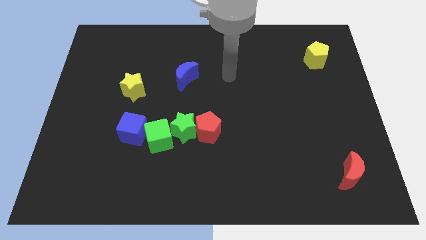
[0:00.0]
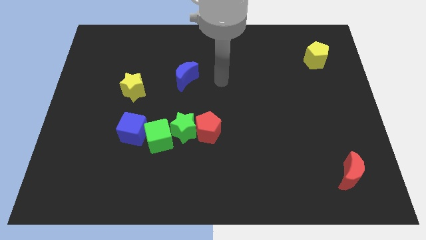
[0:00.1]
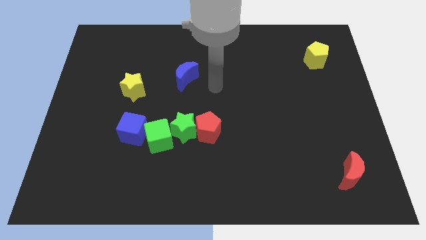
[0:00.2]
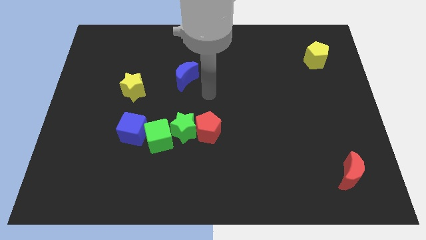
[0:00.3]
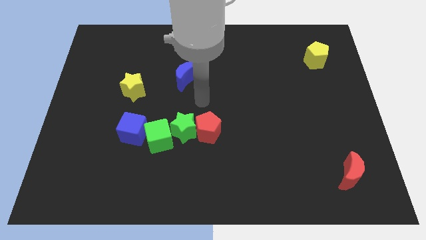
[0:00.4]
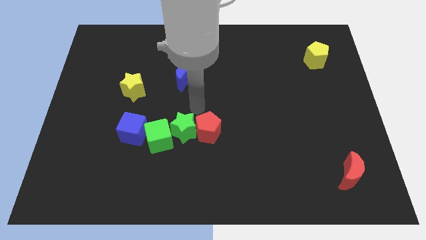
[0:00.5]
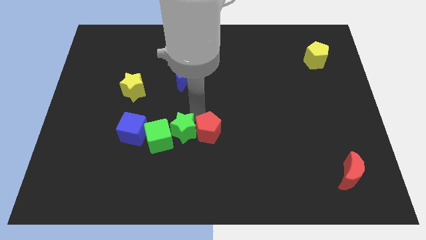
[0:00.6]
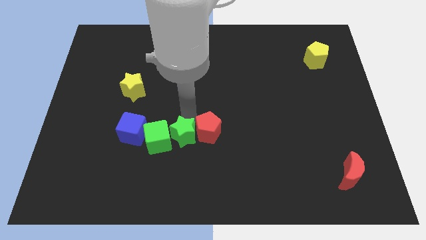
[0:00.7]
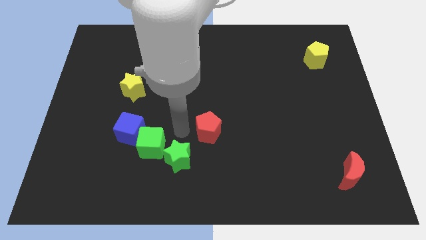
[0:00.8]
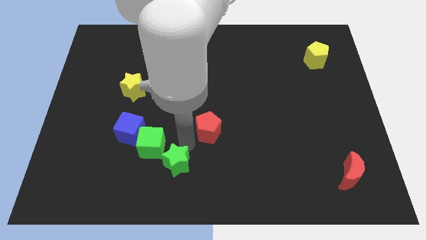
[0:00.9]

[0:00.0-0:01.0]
move the red pentagon away from the green star

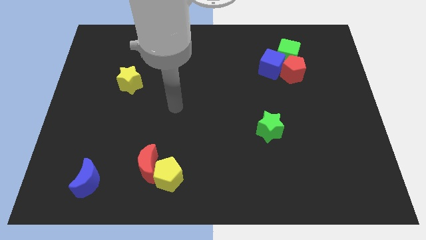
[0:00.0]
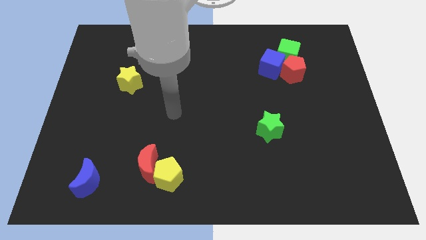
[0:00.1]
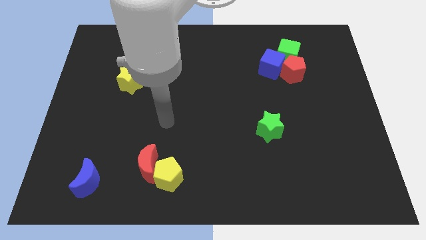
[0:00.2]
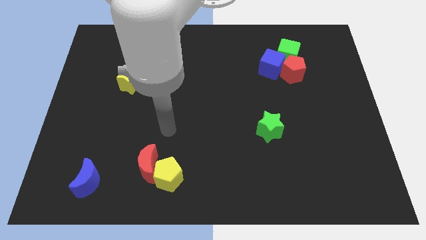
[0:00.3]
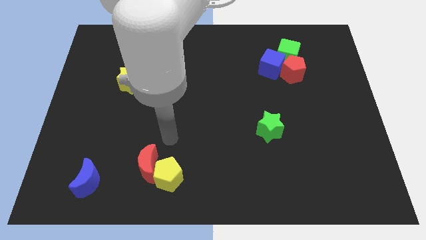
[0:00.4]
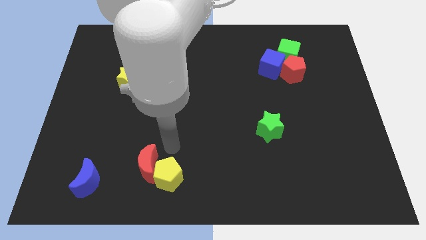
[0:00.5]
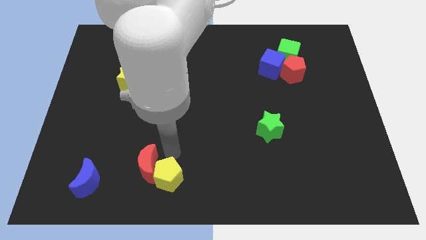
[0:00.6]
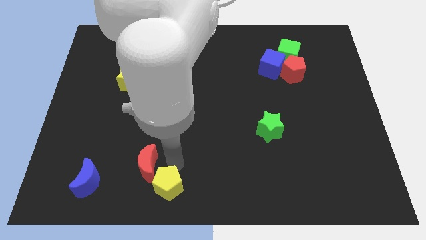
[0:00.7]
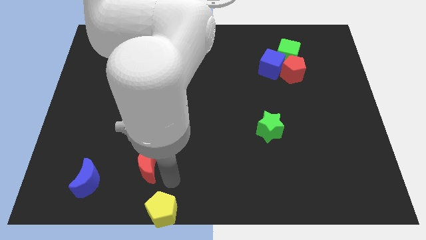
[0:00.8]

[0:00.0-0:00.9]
move the red moon away from the yellow pentagon

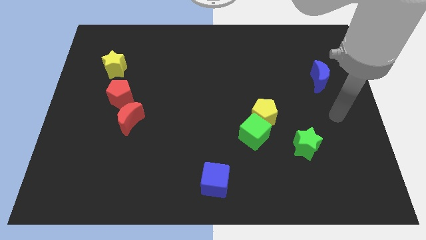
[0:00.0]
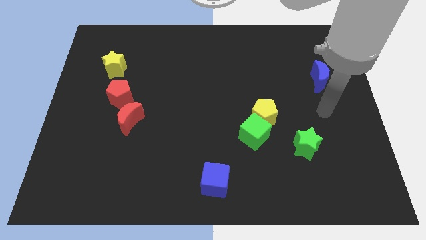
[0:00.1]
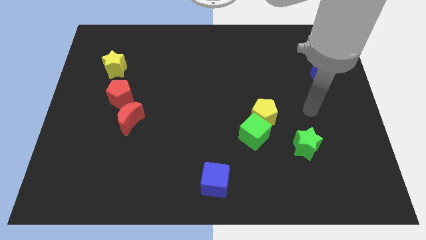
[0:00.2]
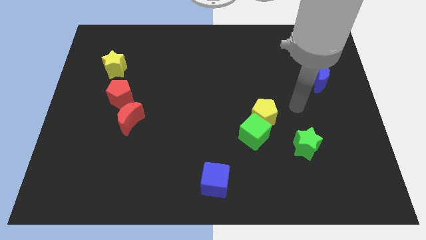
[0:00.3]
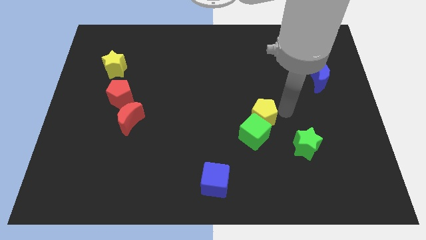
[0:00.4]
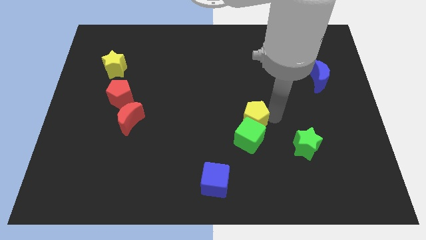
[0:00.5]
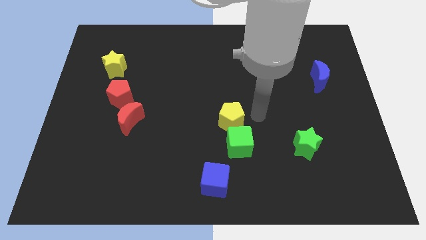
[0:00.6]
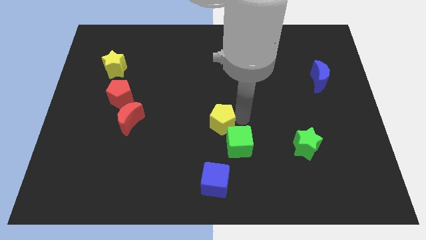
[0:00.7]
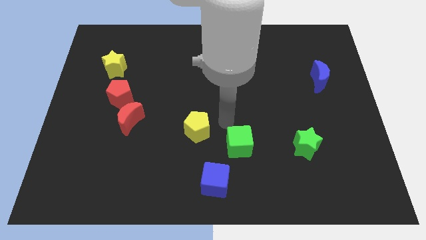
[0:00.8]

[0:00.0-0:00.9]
separate the green cube from the yellow pentagon

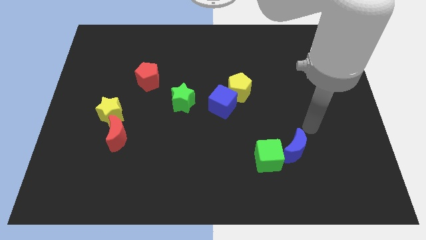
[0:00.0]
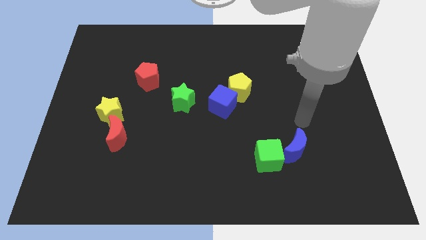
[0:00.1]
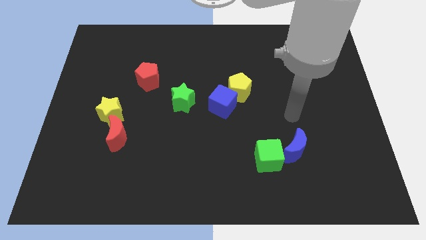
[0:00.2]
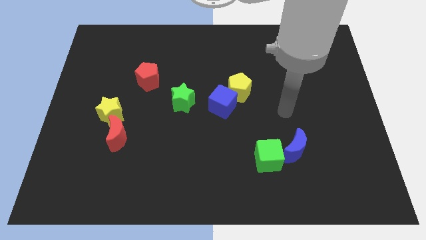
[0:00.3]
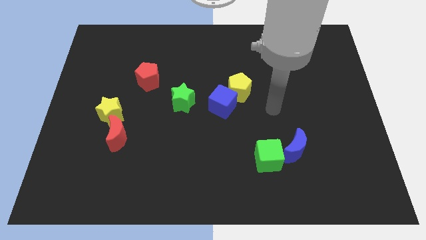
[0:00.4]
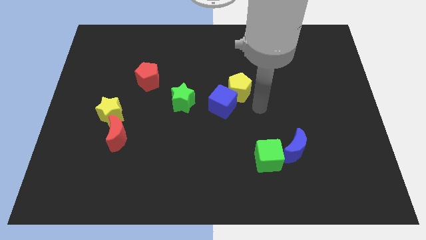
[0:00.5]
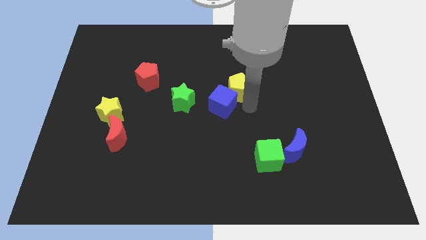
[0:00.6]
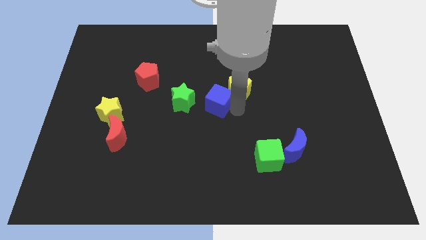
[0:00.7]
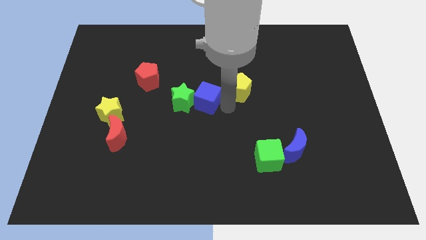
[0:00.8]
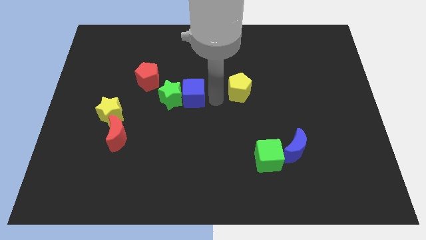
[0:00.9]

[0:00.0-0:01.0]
pull the yellow pentagon apart from the blue cube

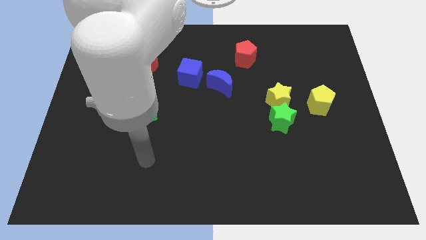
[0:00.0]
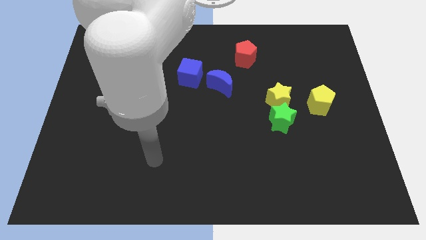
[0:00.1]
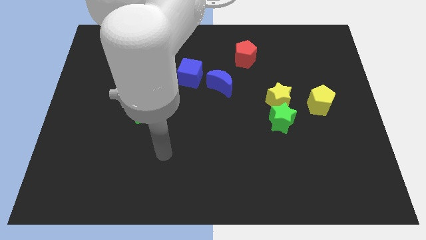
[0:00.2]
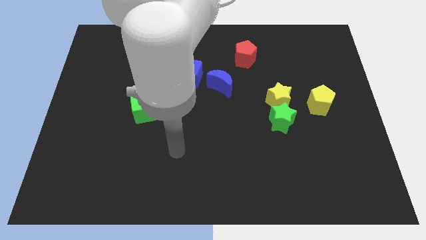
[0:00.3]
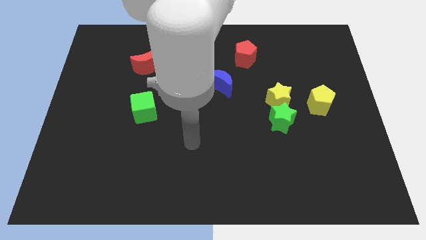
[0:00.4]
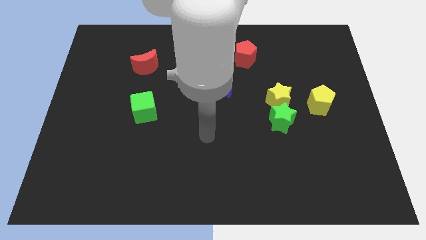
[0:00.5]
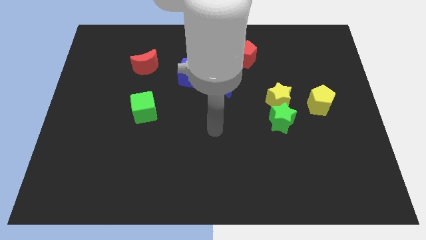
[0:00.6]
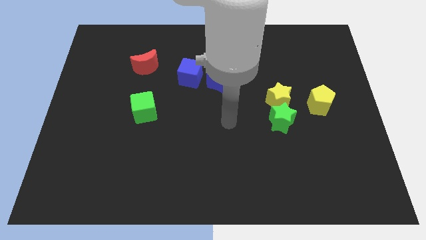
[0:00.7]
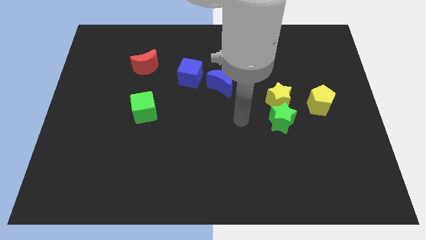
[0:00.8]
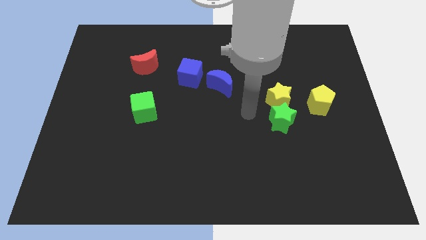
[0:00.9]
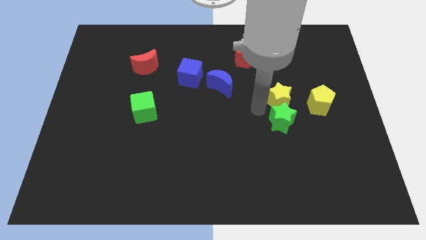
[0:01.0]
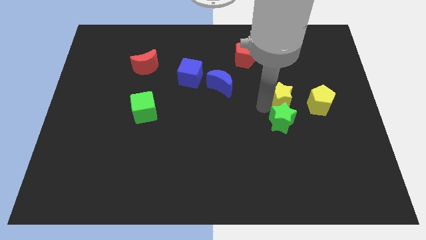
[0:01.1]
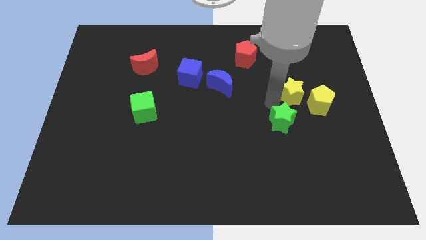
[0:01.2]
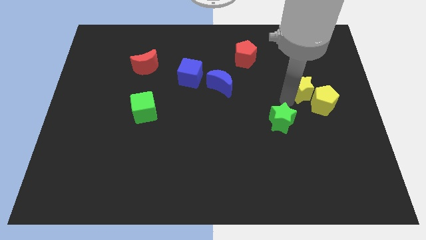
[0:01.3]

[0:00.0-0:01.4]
move the green star away from the yellow star

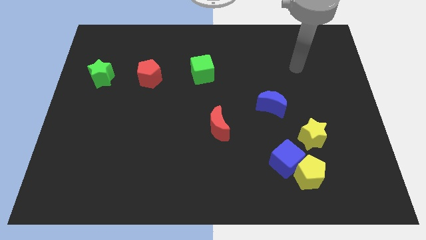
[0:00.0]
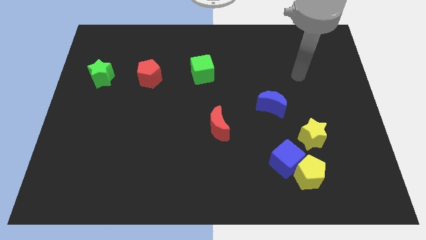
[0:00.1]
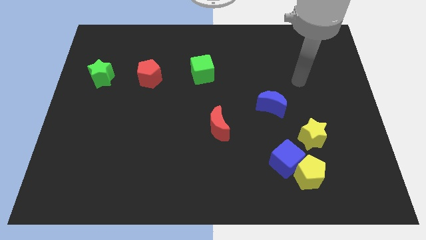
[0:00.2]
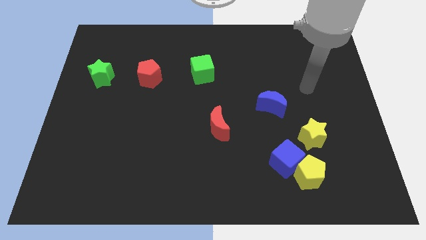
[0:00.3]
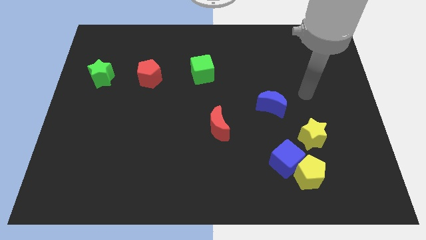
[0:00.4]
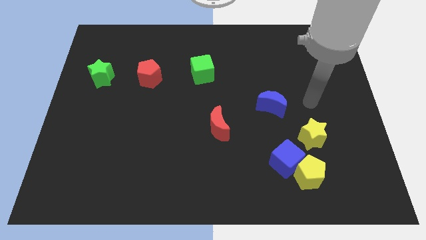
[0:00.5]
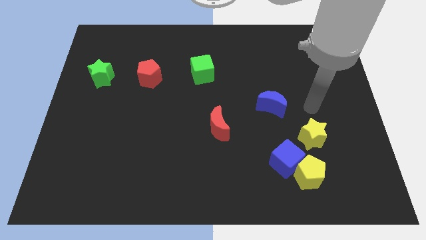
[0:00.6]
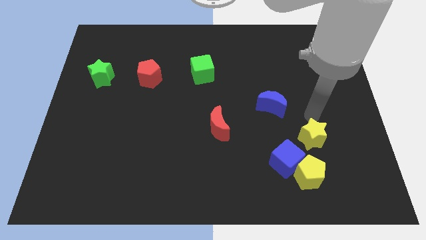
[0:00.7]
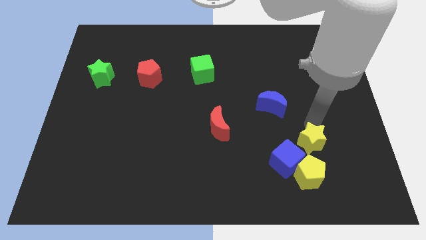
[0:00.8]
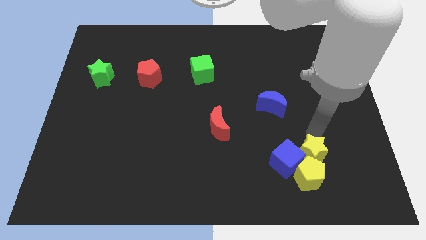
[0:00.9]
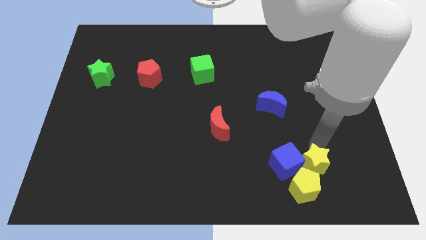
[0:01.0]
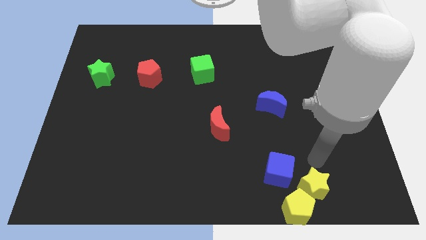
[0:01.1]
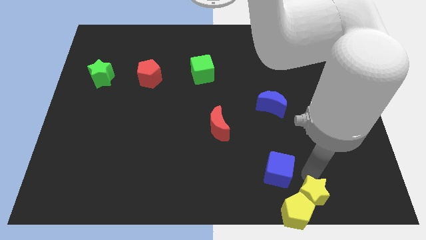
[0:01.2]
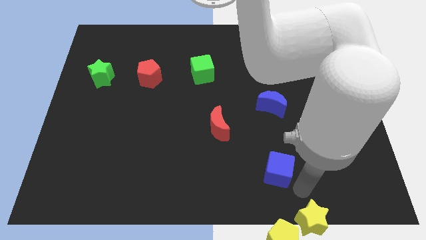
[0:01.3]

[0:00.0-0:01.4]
separate the blue cube from the yellow pentagon and yellow star

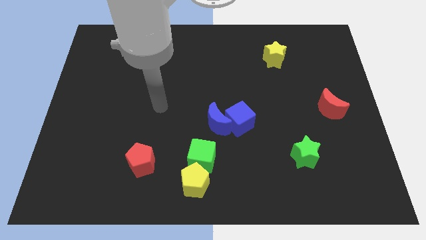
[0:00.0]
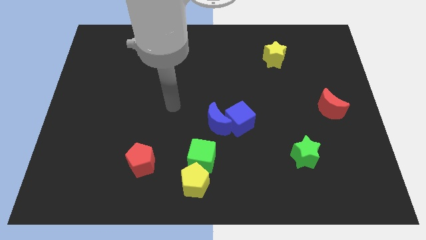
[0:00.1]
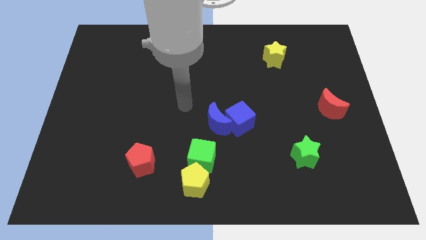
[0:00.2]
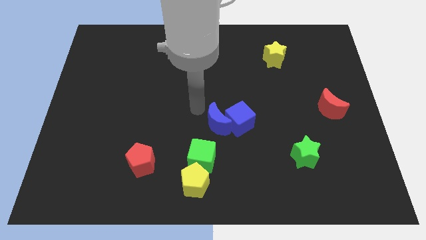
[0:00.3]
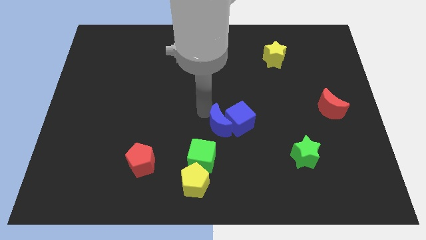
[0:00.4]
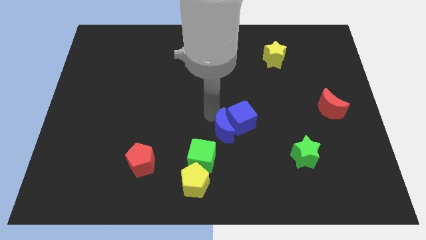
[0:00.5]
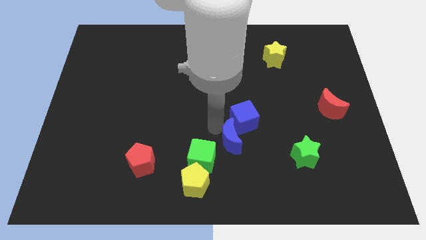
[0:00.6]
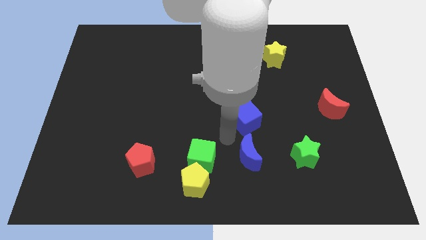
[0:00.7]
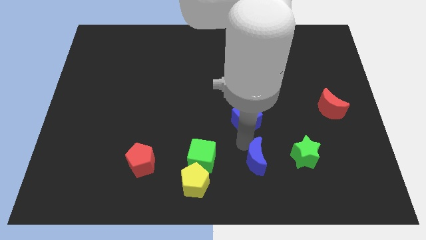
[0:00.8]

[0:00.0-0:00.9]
pull the blue cube apart from the blue moon

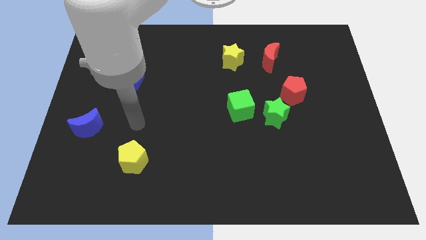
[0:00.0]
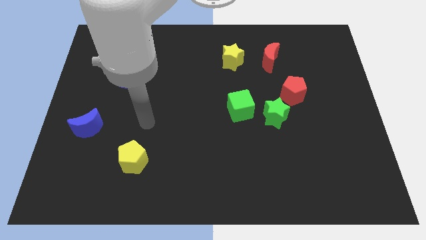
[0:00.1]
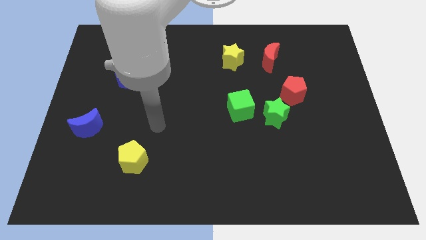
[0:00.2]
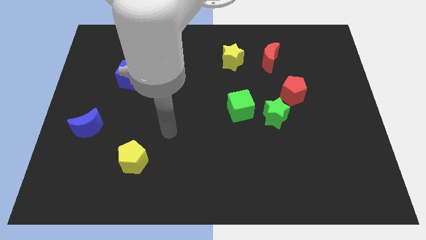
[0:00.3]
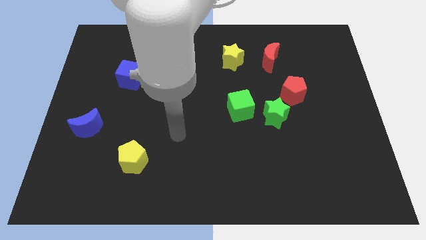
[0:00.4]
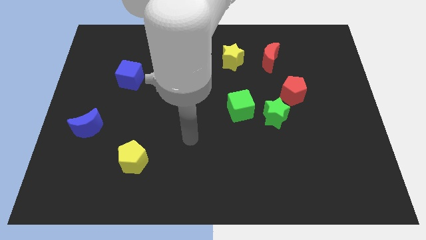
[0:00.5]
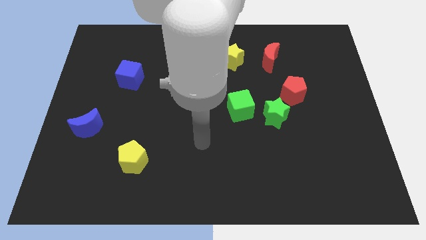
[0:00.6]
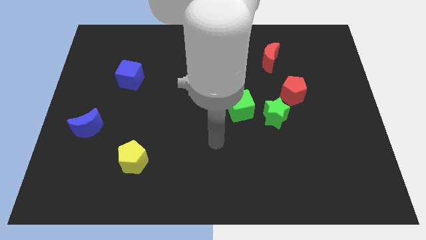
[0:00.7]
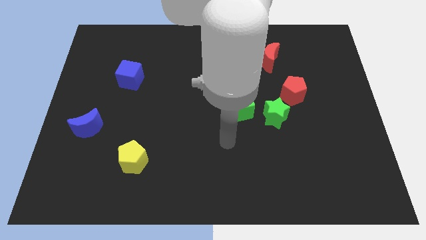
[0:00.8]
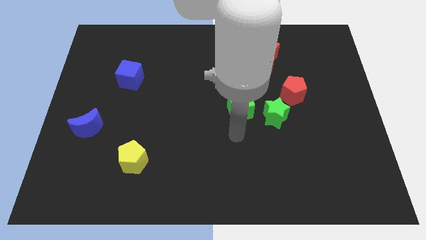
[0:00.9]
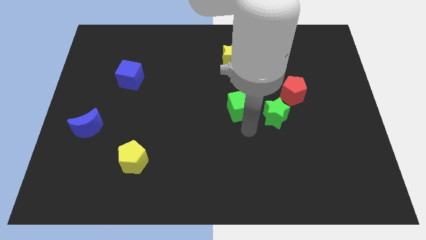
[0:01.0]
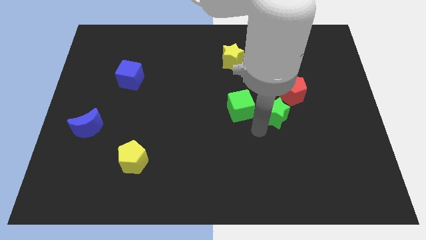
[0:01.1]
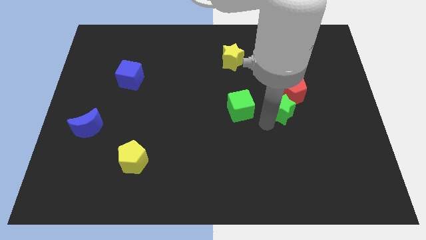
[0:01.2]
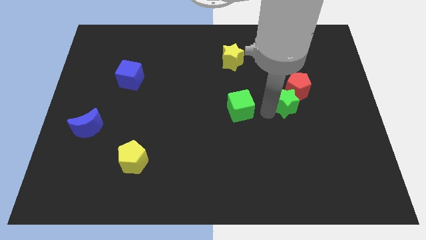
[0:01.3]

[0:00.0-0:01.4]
pull the green cube apart from the green star

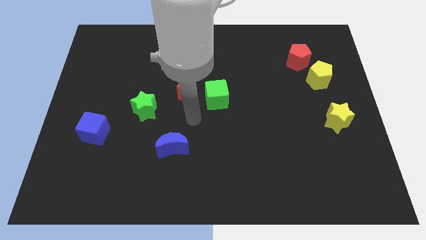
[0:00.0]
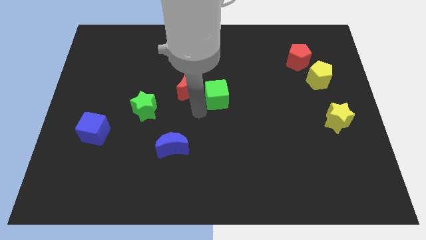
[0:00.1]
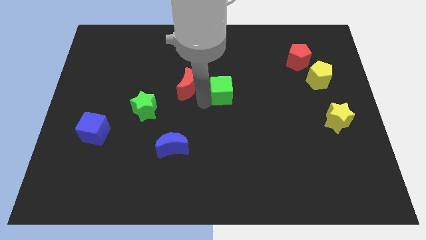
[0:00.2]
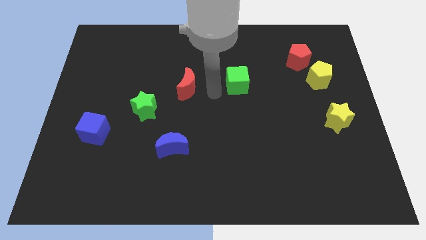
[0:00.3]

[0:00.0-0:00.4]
pull the red moon apart from the green cube
